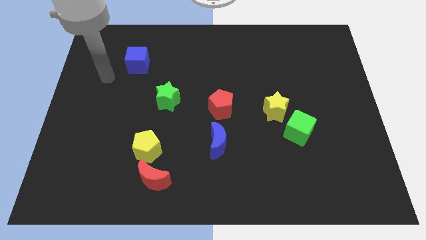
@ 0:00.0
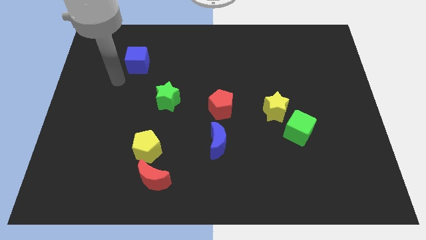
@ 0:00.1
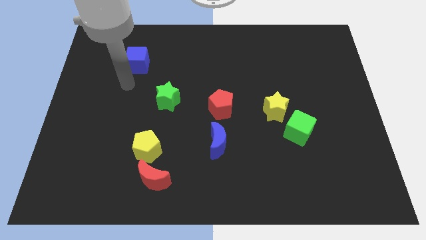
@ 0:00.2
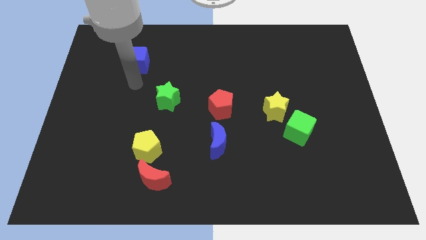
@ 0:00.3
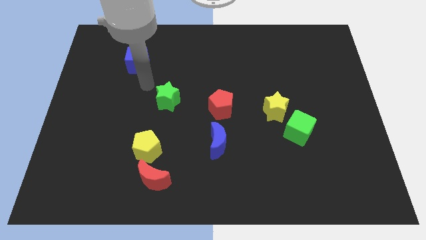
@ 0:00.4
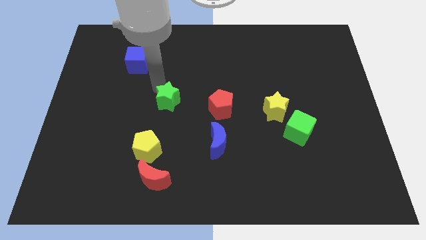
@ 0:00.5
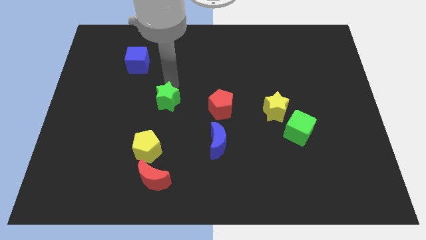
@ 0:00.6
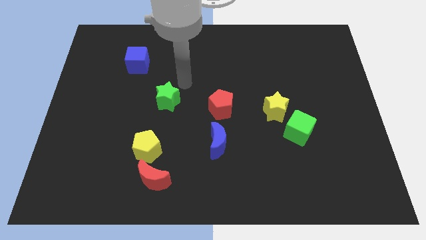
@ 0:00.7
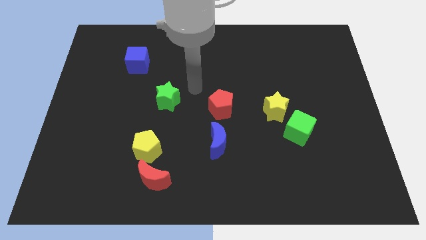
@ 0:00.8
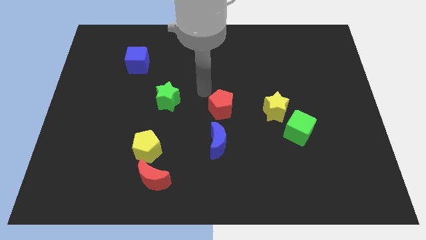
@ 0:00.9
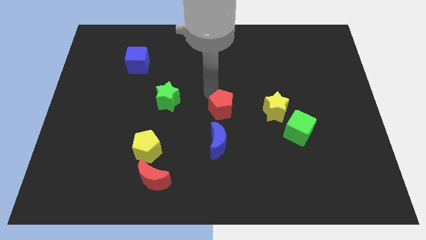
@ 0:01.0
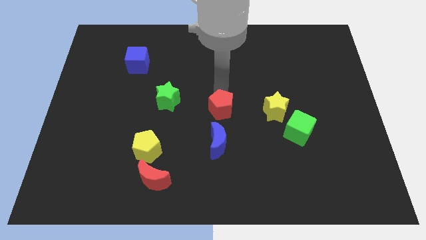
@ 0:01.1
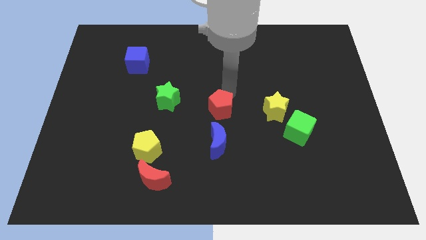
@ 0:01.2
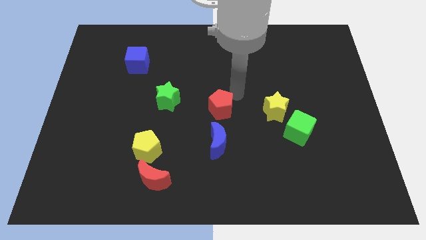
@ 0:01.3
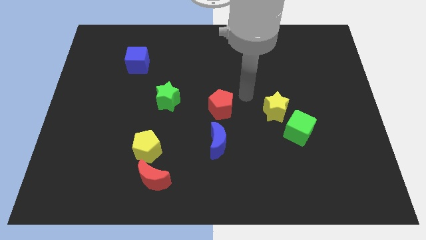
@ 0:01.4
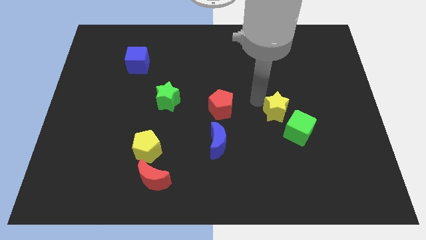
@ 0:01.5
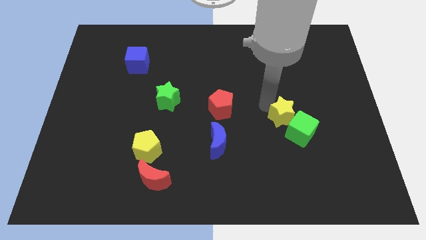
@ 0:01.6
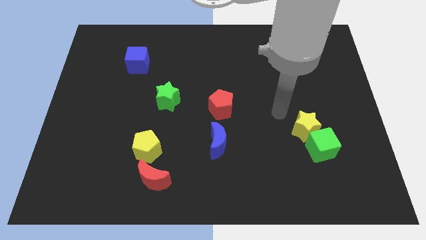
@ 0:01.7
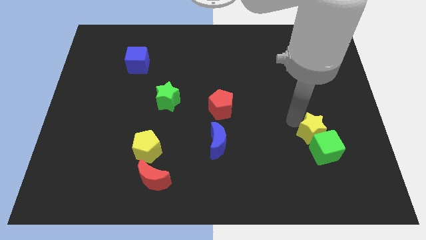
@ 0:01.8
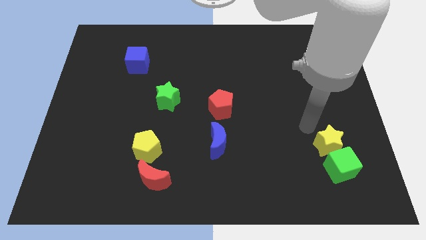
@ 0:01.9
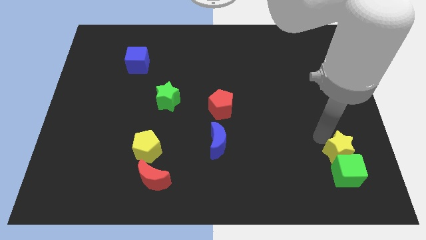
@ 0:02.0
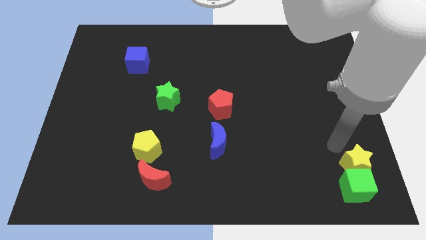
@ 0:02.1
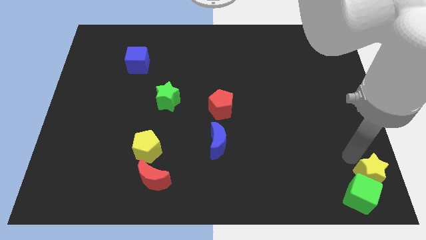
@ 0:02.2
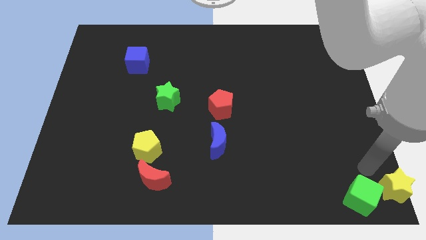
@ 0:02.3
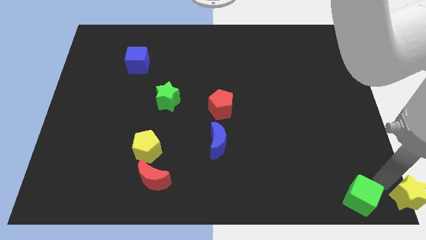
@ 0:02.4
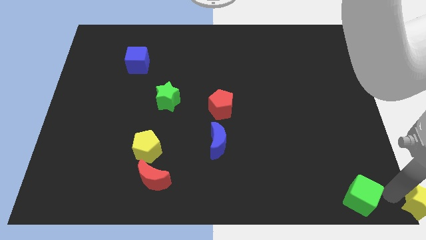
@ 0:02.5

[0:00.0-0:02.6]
separate the green cube from the yellow star

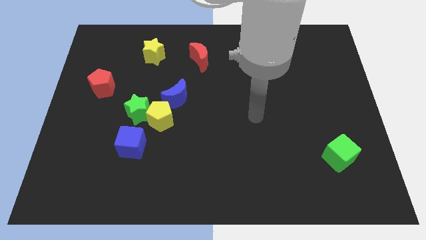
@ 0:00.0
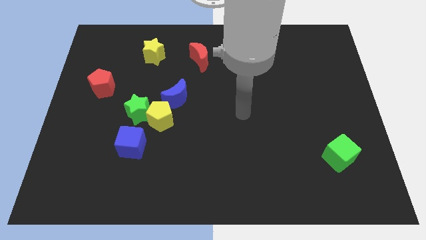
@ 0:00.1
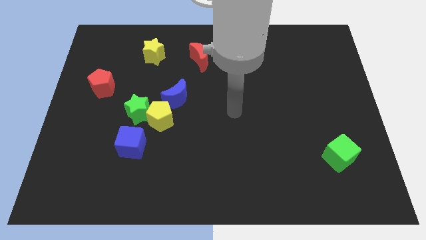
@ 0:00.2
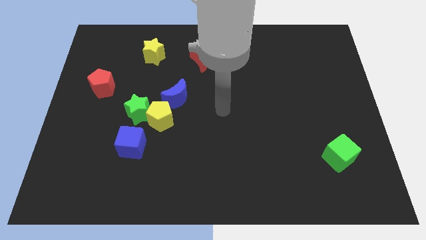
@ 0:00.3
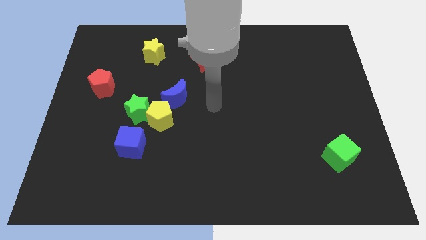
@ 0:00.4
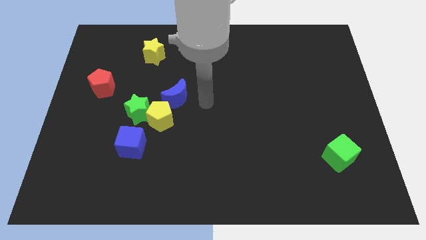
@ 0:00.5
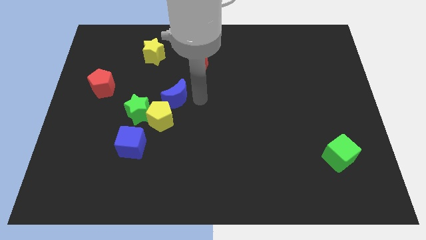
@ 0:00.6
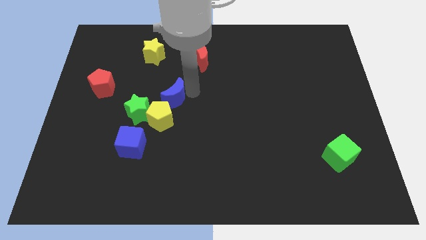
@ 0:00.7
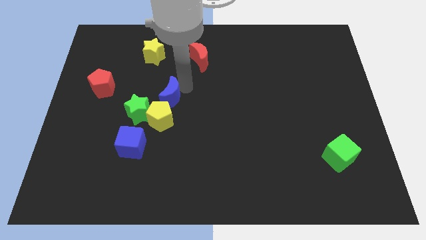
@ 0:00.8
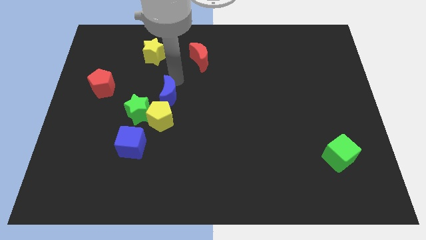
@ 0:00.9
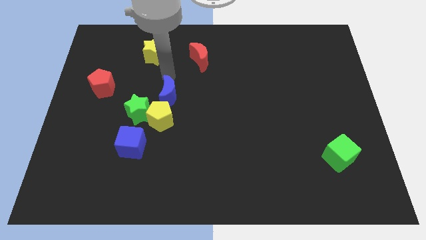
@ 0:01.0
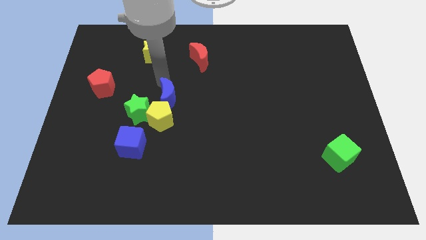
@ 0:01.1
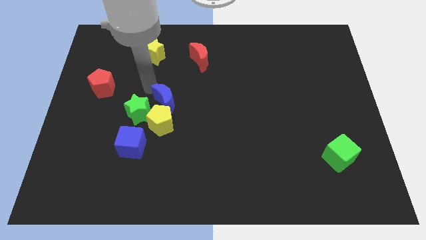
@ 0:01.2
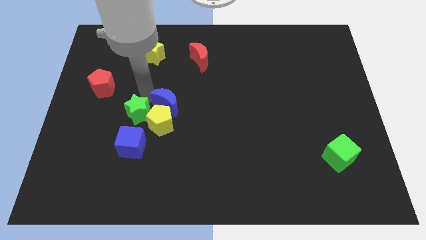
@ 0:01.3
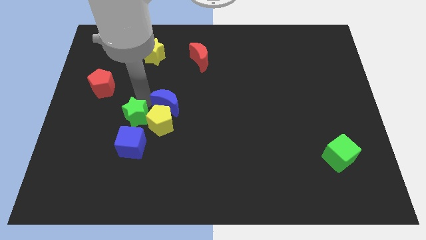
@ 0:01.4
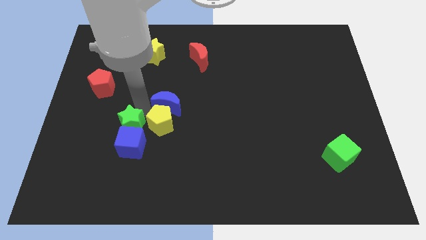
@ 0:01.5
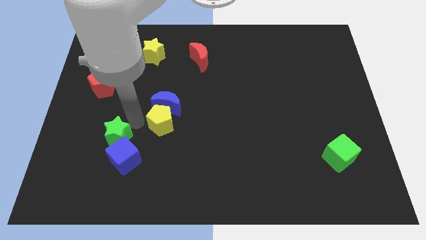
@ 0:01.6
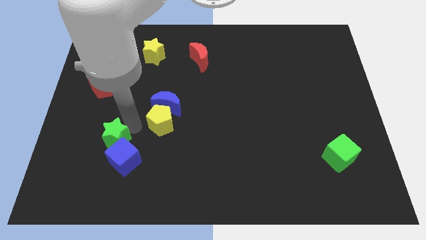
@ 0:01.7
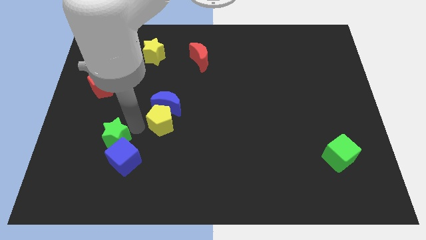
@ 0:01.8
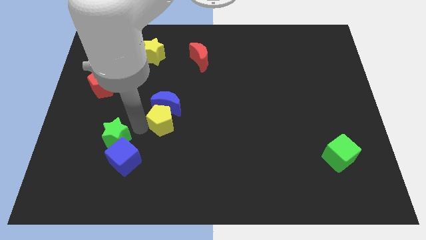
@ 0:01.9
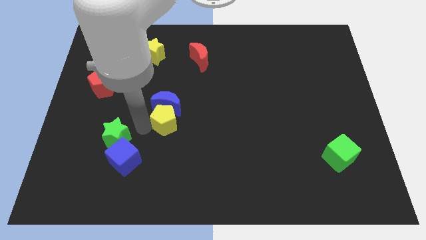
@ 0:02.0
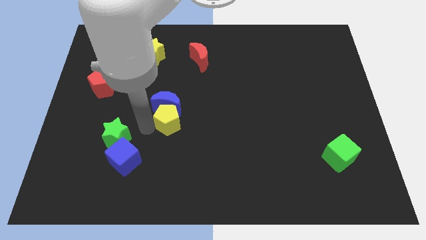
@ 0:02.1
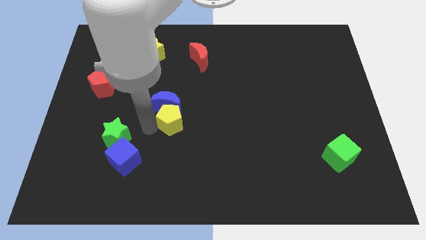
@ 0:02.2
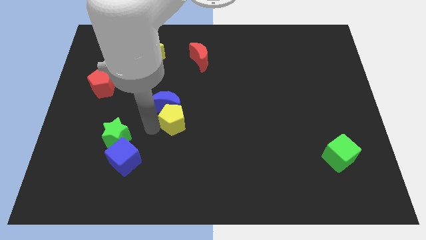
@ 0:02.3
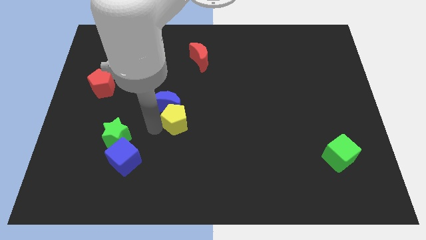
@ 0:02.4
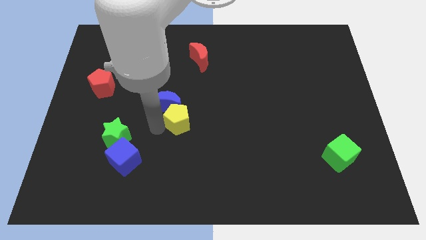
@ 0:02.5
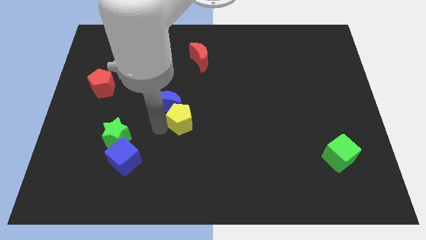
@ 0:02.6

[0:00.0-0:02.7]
pull the yellow pentagon apart from the group

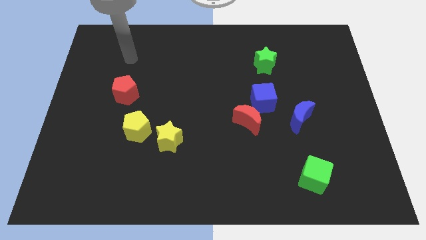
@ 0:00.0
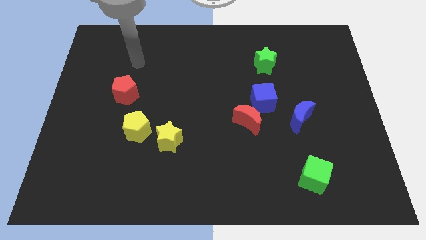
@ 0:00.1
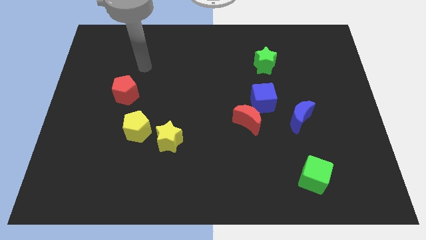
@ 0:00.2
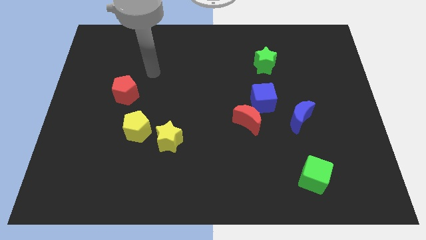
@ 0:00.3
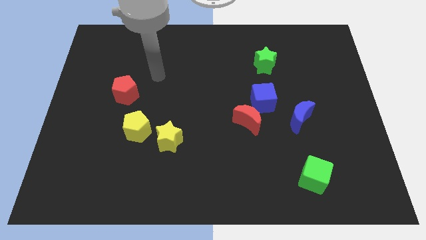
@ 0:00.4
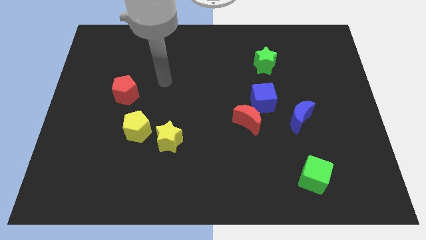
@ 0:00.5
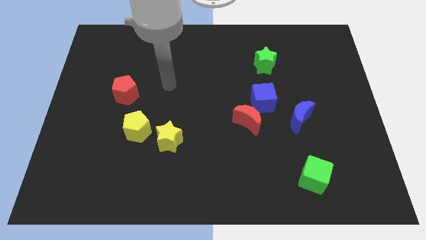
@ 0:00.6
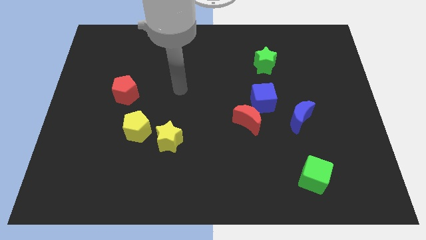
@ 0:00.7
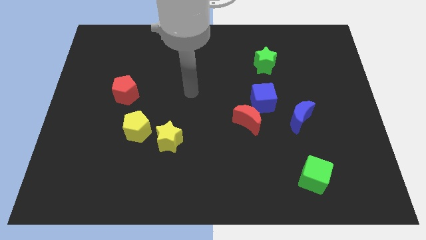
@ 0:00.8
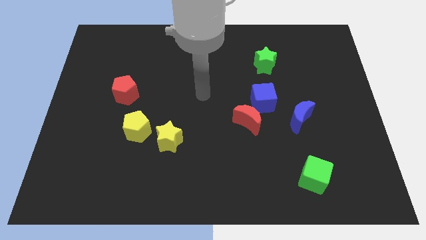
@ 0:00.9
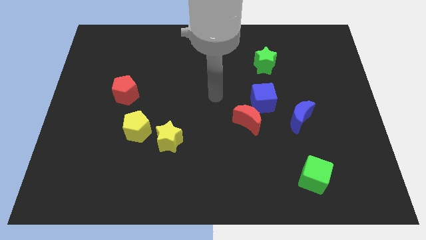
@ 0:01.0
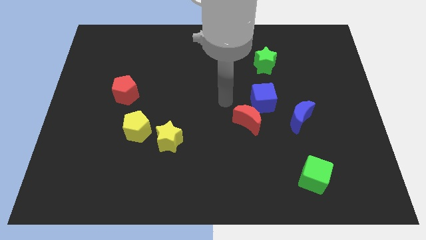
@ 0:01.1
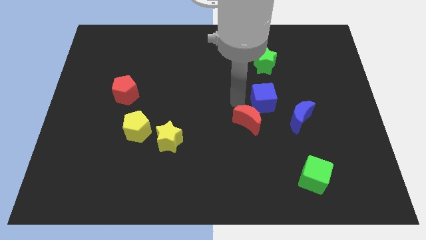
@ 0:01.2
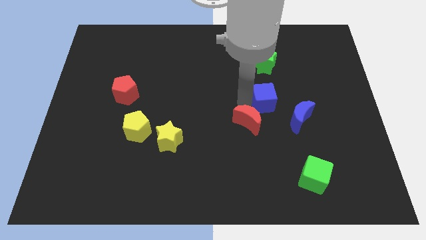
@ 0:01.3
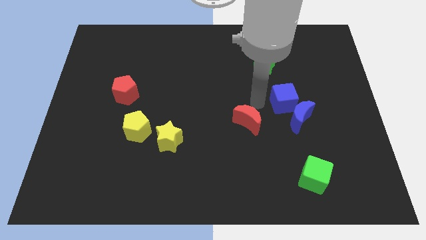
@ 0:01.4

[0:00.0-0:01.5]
move the red moon away from the blue cube

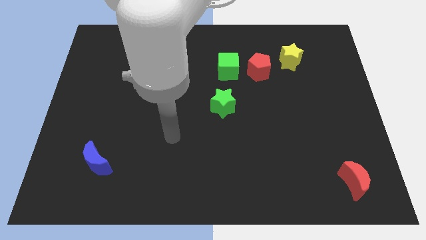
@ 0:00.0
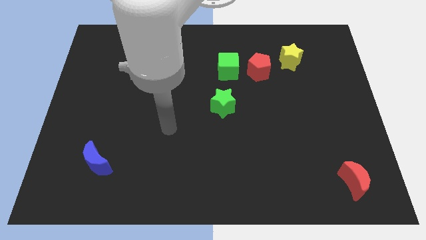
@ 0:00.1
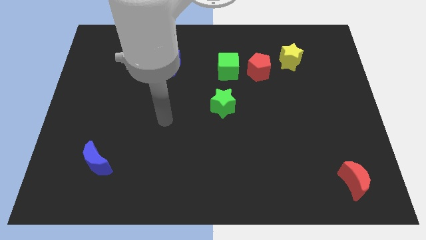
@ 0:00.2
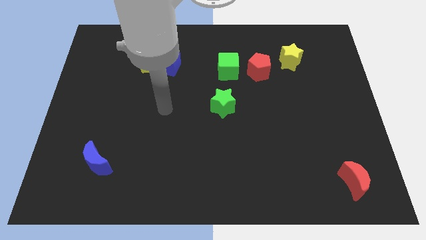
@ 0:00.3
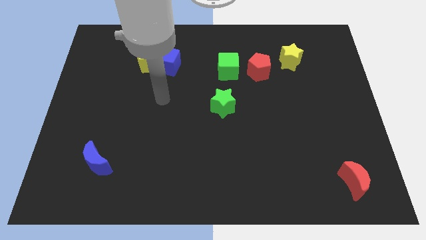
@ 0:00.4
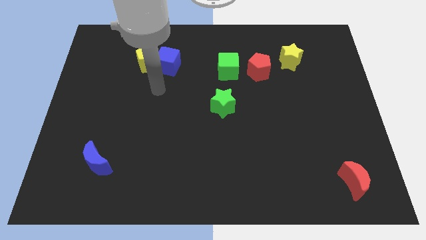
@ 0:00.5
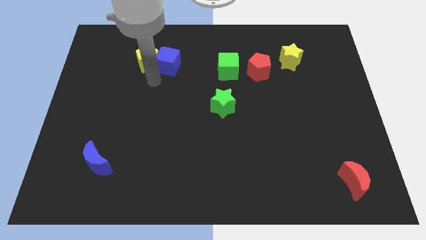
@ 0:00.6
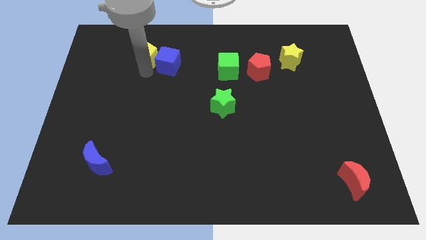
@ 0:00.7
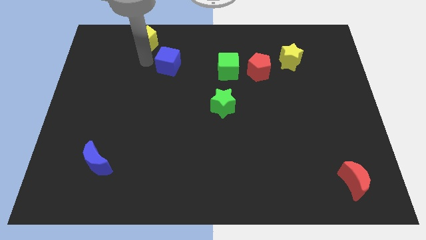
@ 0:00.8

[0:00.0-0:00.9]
move the blue cube away from the yellow pentagon

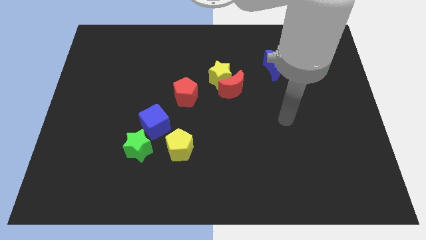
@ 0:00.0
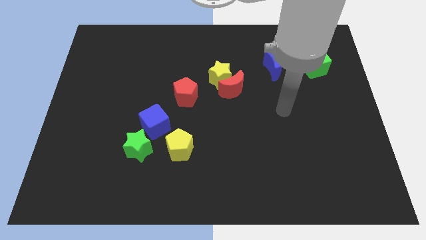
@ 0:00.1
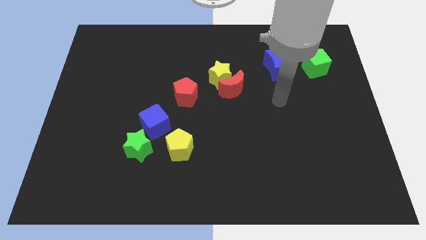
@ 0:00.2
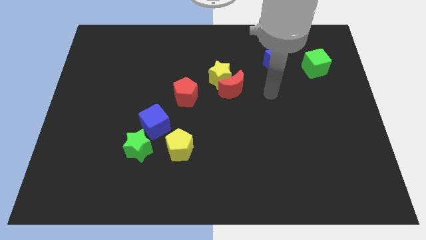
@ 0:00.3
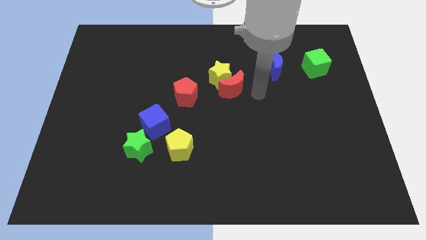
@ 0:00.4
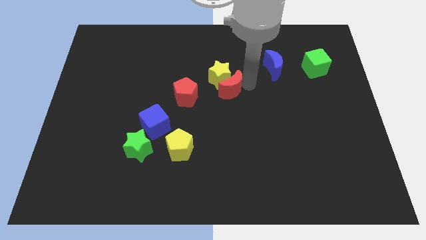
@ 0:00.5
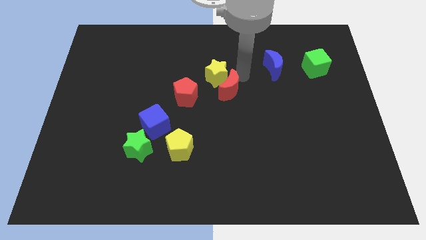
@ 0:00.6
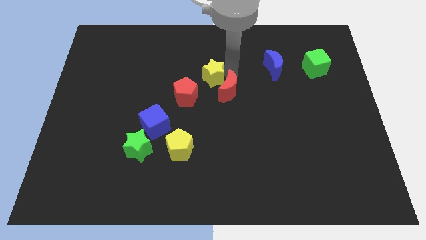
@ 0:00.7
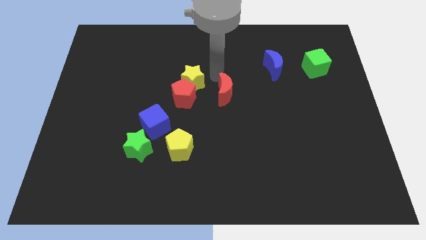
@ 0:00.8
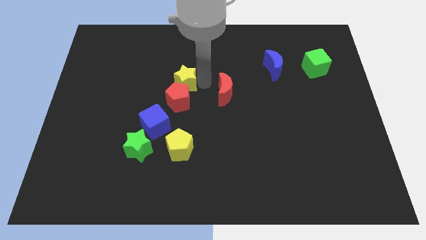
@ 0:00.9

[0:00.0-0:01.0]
move the red moon away from the yellow star

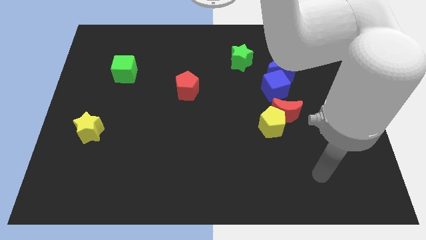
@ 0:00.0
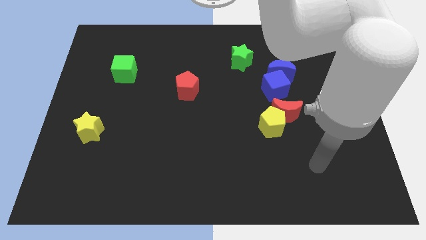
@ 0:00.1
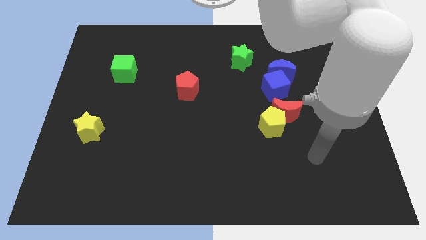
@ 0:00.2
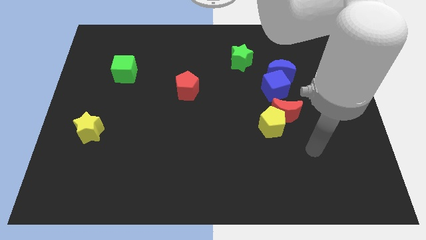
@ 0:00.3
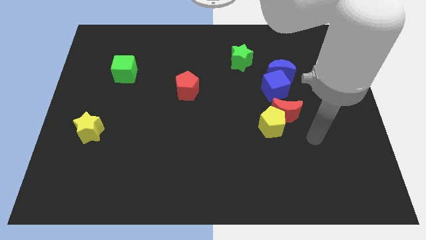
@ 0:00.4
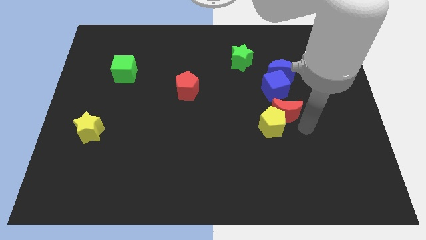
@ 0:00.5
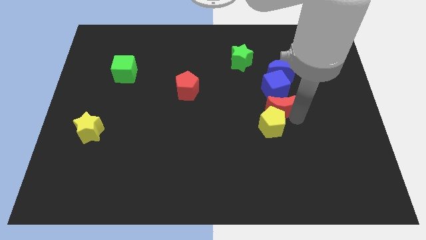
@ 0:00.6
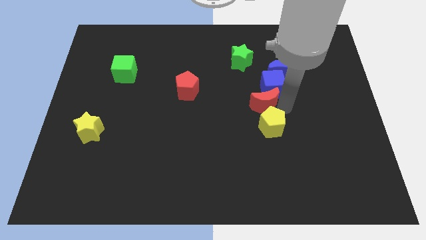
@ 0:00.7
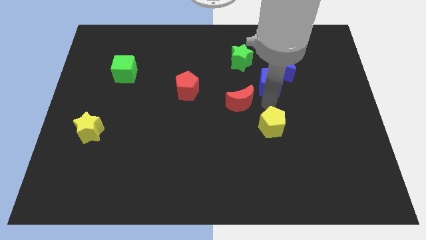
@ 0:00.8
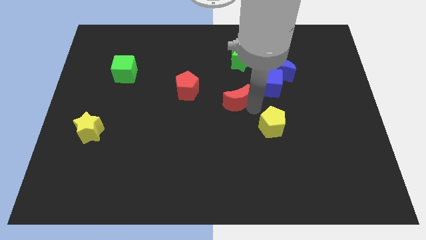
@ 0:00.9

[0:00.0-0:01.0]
separate the yellow pentagon from the red moon
